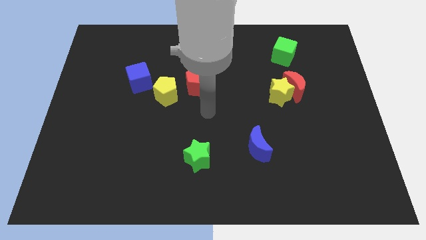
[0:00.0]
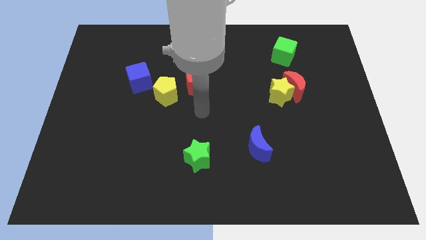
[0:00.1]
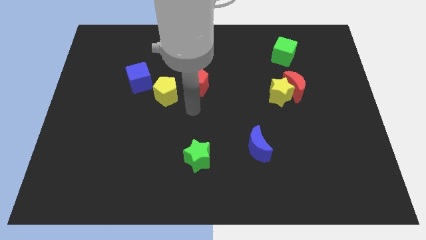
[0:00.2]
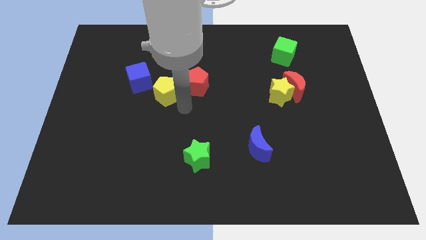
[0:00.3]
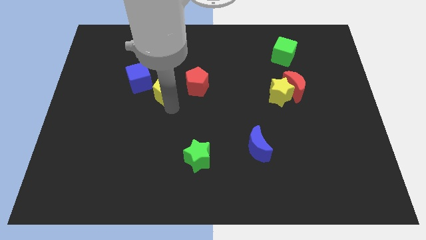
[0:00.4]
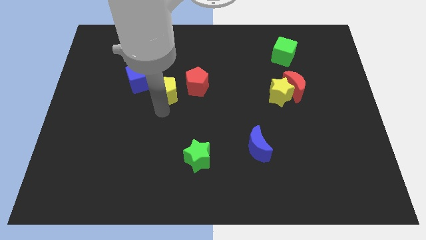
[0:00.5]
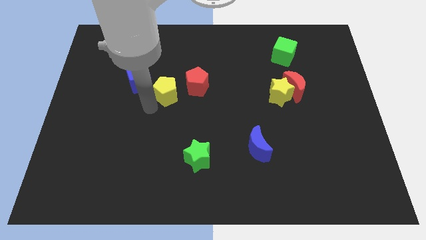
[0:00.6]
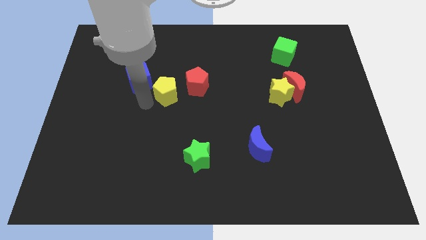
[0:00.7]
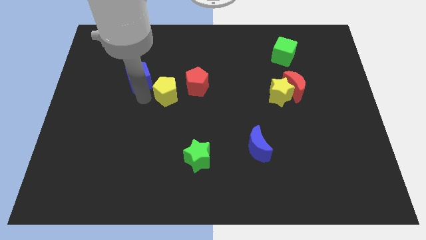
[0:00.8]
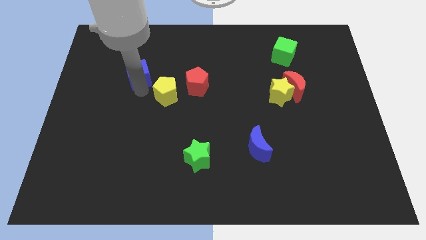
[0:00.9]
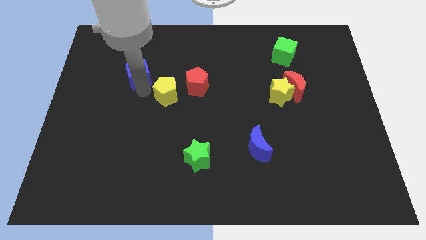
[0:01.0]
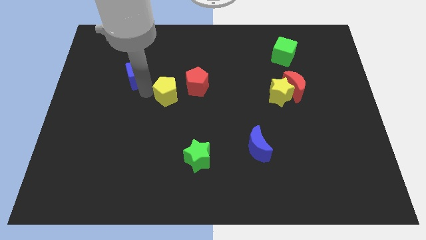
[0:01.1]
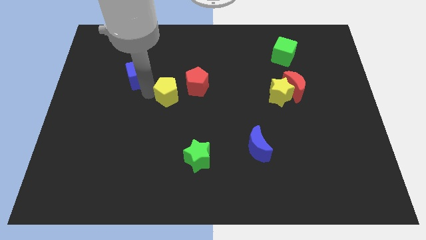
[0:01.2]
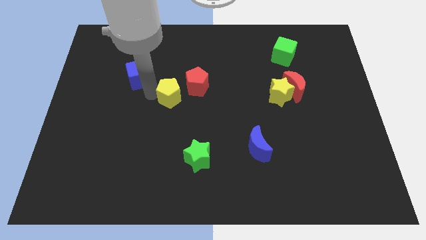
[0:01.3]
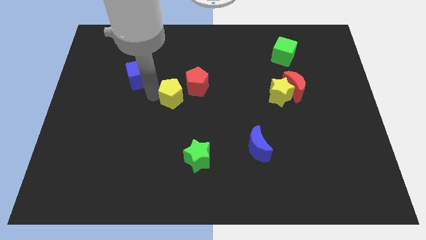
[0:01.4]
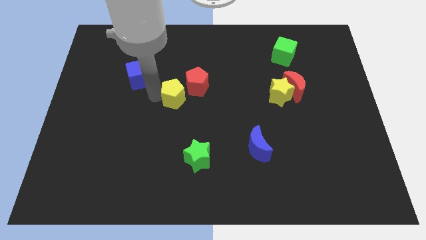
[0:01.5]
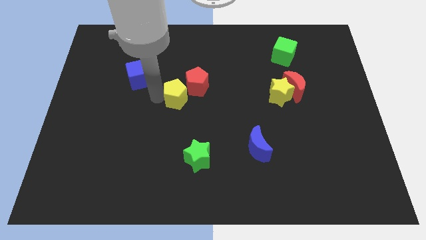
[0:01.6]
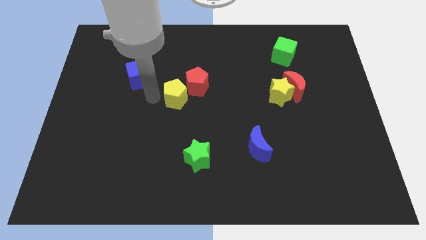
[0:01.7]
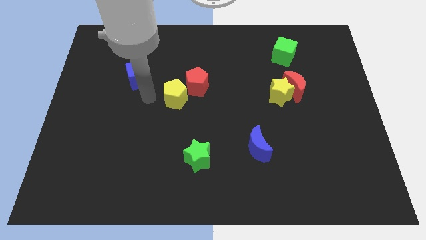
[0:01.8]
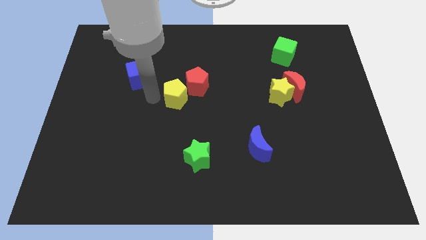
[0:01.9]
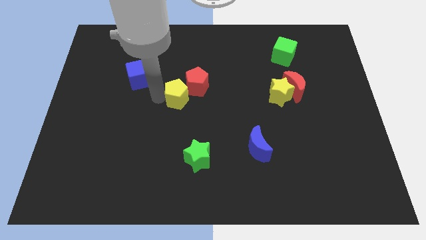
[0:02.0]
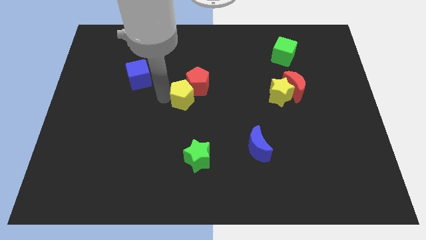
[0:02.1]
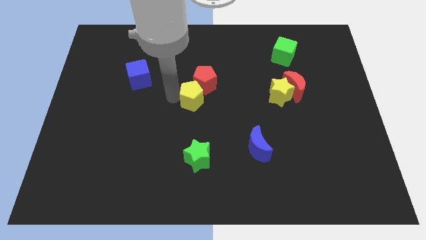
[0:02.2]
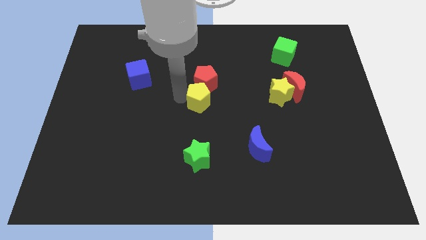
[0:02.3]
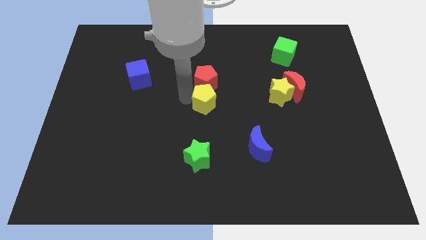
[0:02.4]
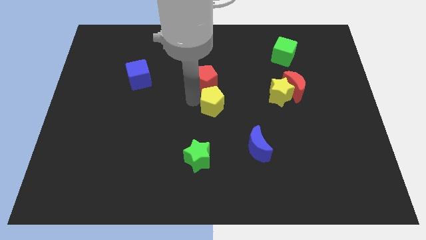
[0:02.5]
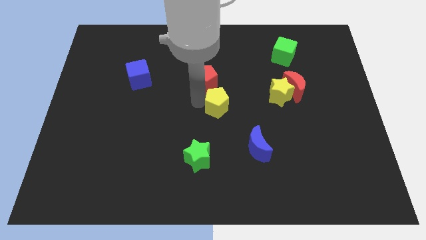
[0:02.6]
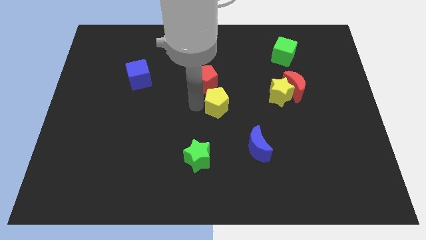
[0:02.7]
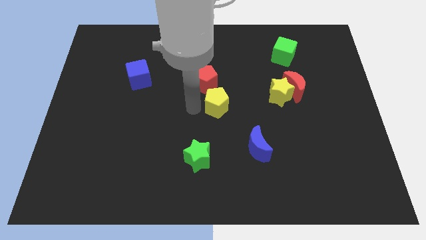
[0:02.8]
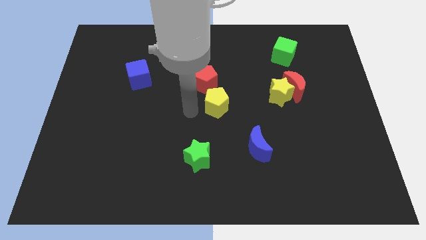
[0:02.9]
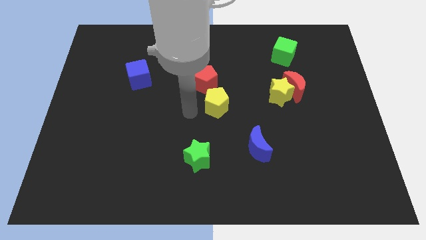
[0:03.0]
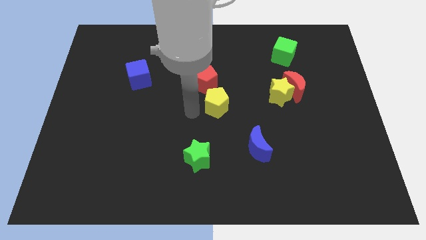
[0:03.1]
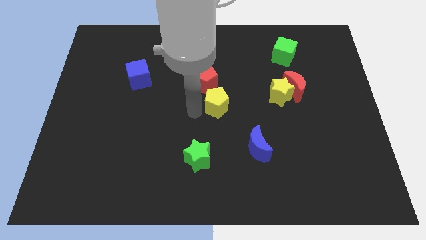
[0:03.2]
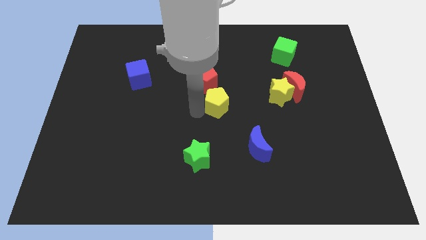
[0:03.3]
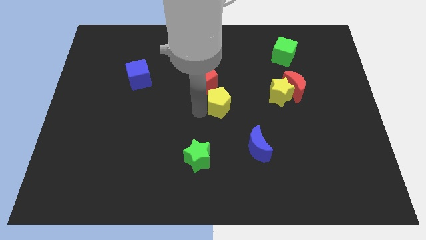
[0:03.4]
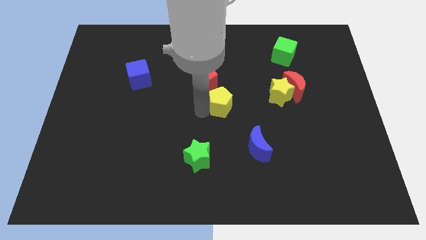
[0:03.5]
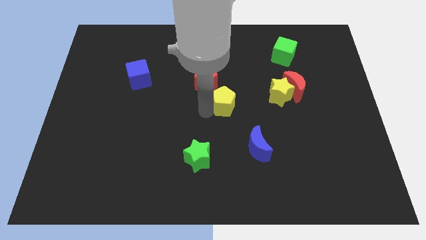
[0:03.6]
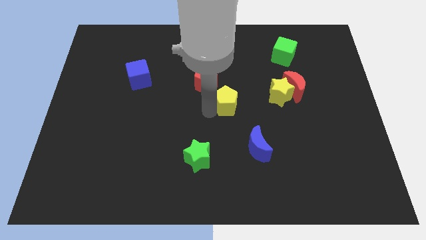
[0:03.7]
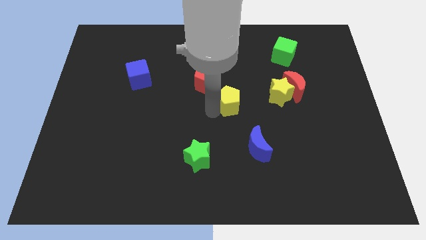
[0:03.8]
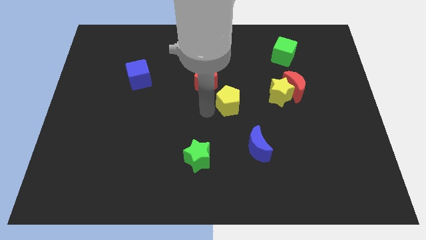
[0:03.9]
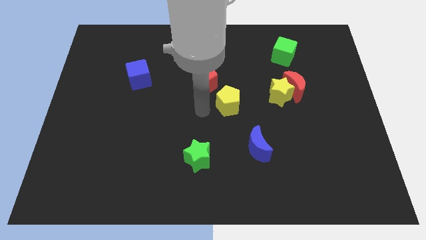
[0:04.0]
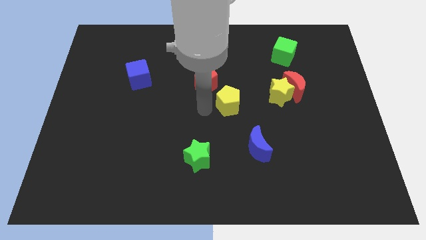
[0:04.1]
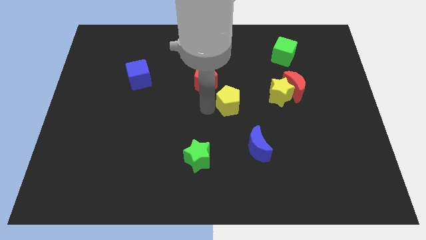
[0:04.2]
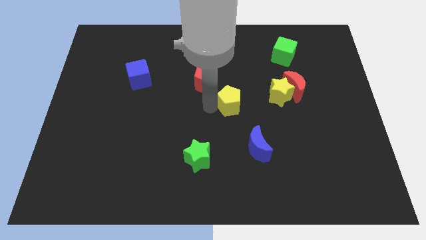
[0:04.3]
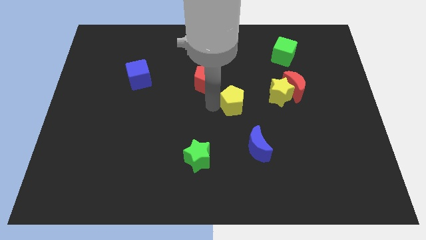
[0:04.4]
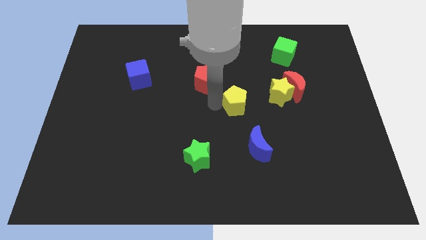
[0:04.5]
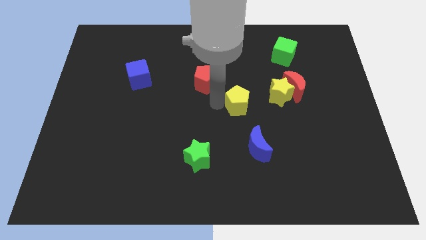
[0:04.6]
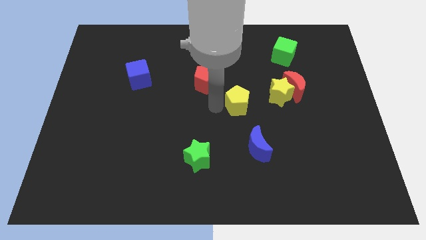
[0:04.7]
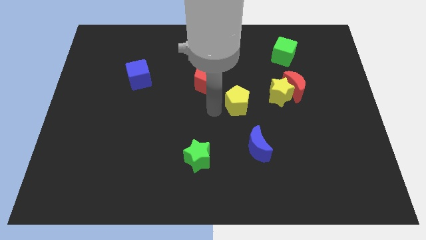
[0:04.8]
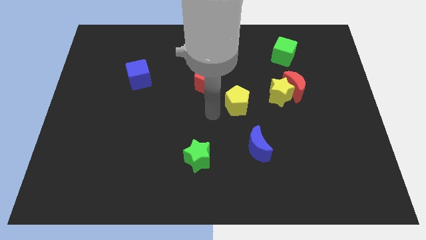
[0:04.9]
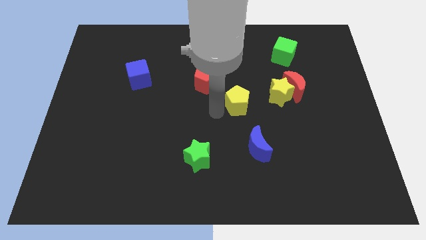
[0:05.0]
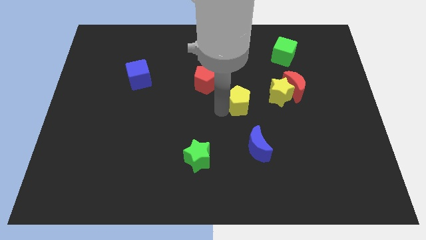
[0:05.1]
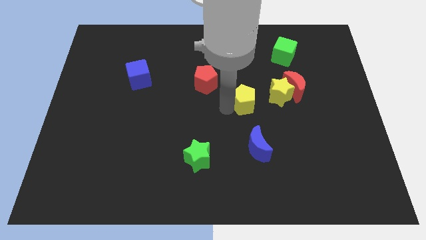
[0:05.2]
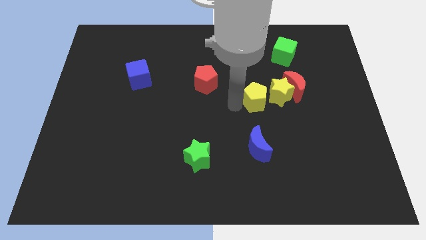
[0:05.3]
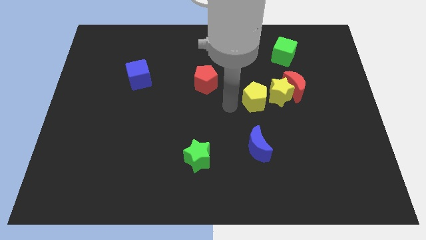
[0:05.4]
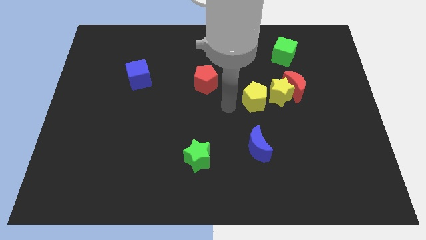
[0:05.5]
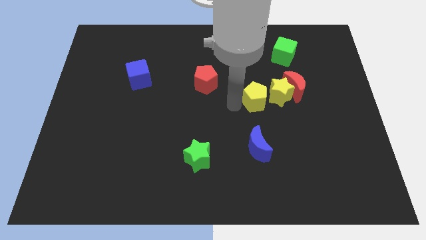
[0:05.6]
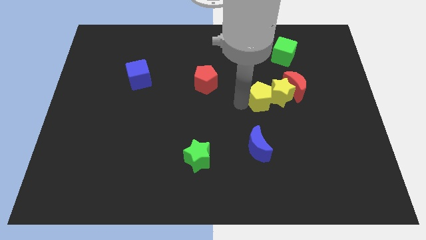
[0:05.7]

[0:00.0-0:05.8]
put the yellow pentagon next to the yellow star

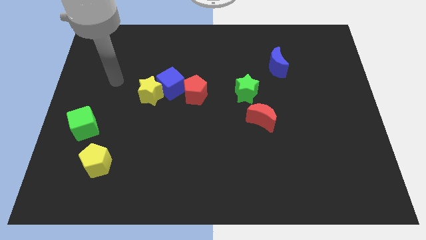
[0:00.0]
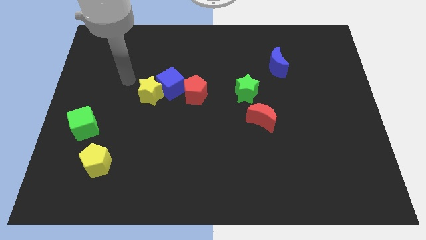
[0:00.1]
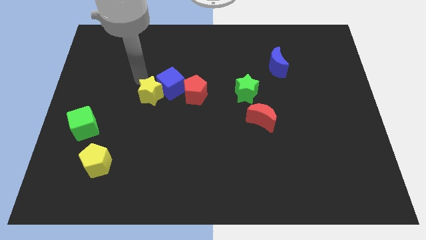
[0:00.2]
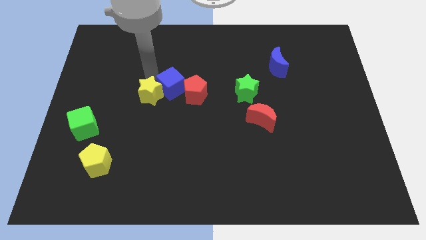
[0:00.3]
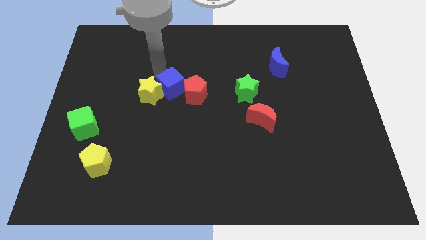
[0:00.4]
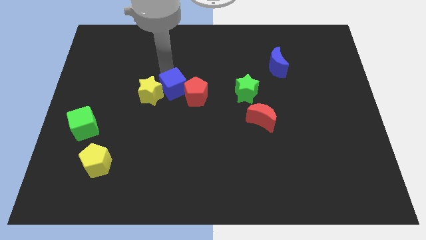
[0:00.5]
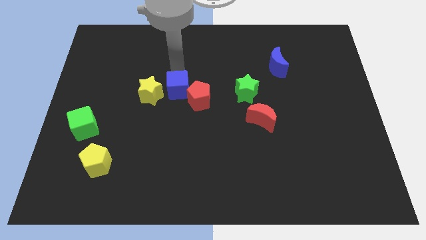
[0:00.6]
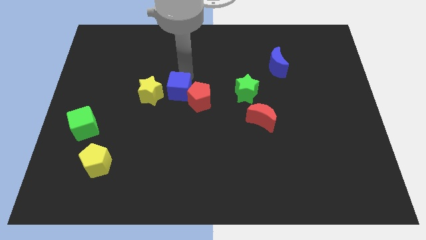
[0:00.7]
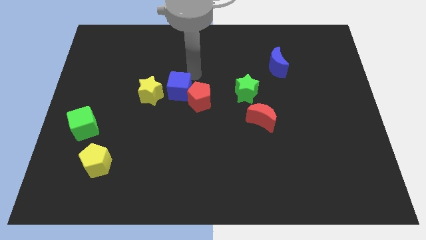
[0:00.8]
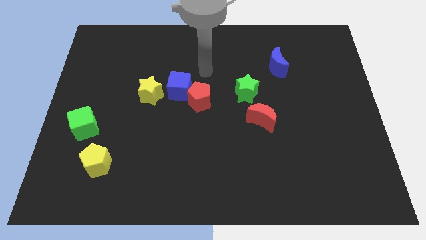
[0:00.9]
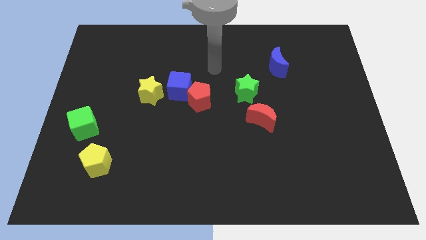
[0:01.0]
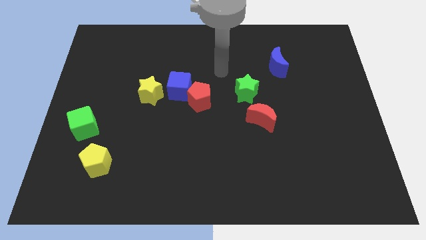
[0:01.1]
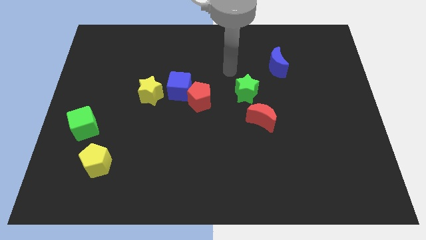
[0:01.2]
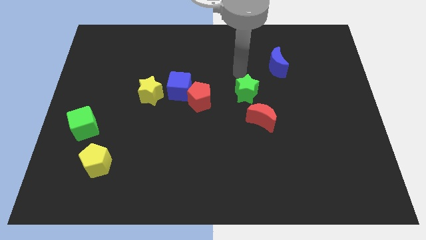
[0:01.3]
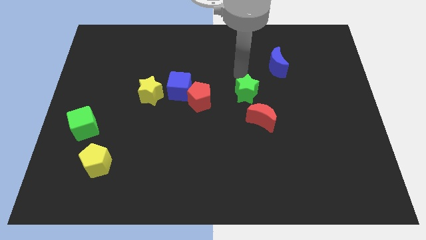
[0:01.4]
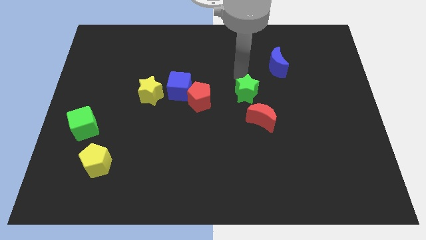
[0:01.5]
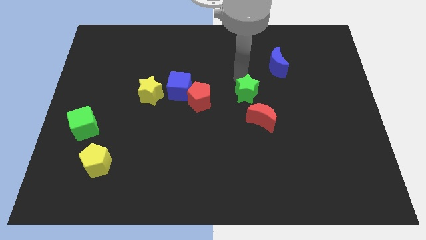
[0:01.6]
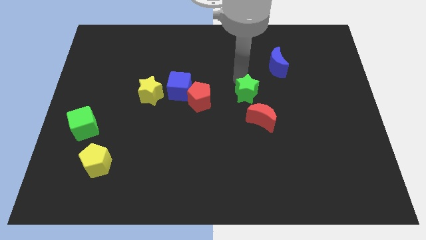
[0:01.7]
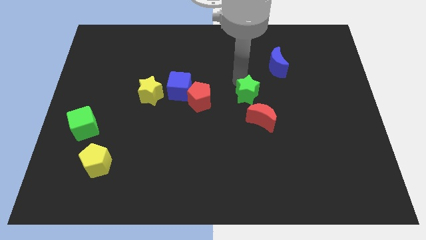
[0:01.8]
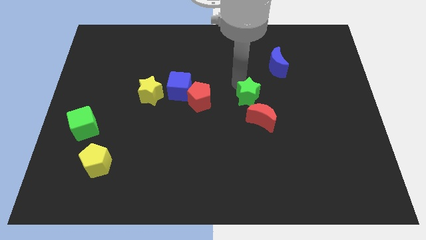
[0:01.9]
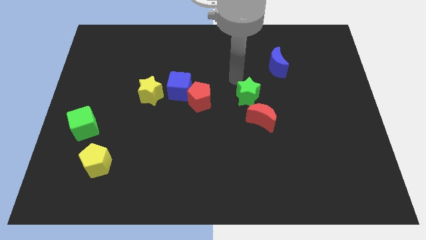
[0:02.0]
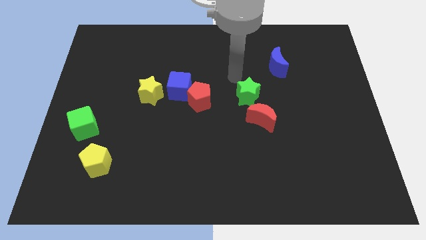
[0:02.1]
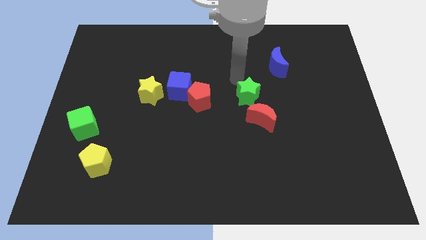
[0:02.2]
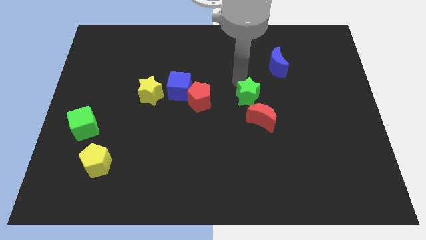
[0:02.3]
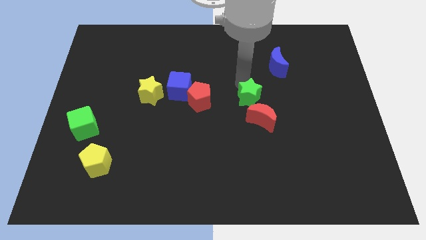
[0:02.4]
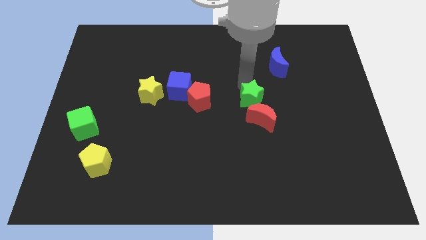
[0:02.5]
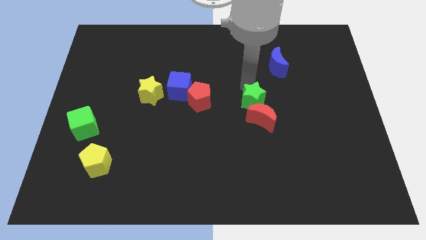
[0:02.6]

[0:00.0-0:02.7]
push the green star close to the red moon
